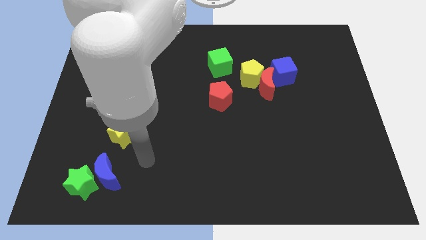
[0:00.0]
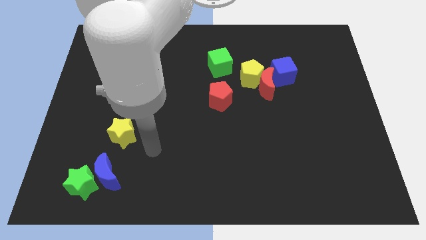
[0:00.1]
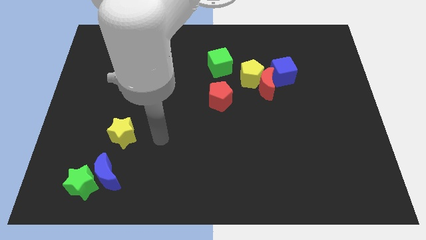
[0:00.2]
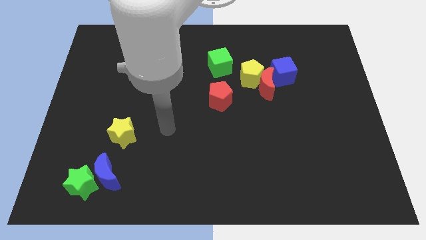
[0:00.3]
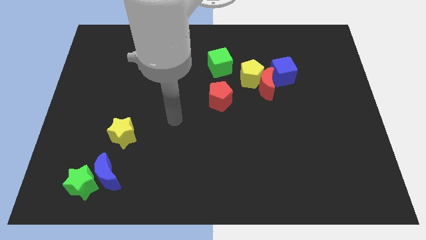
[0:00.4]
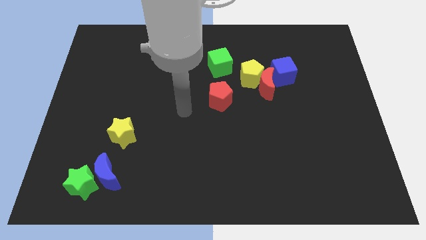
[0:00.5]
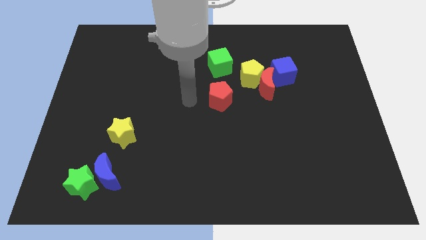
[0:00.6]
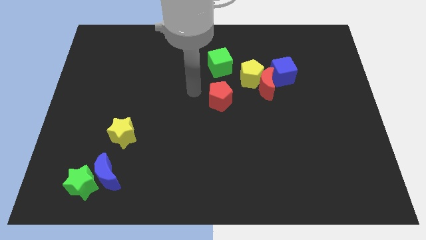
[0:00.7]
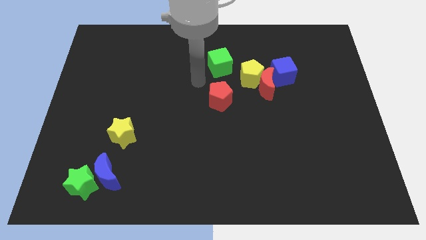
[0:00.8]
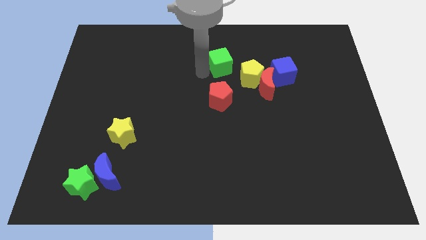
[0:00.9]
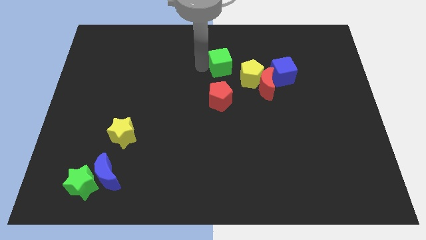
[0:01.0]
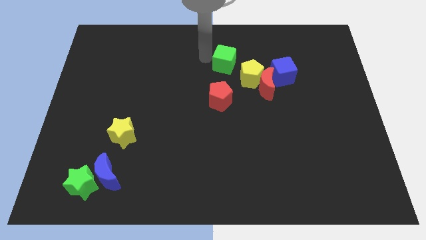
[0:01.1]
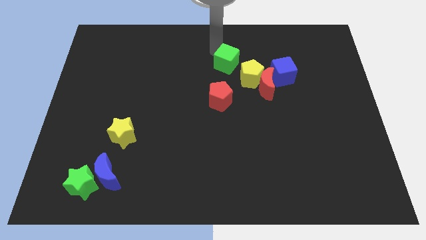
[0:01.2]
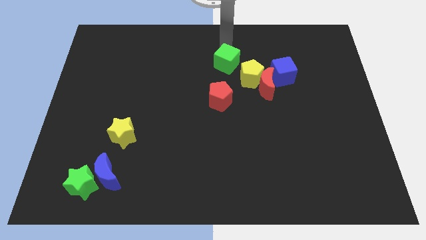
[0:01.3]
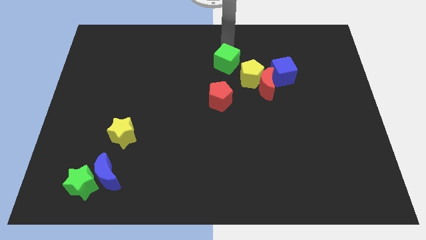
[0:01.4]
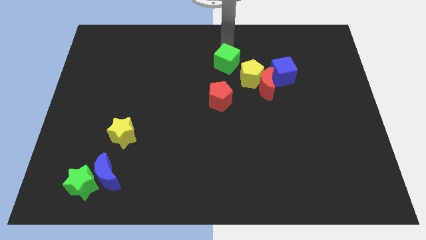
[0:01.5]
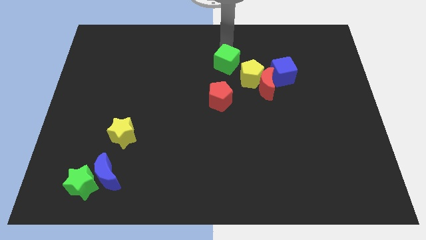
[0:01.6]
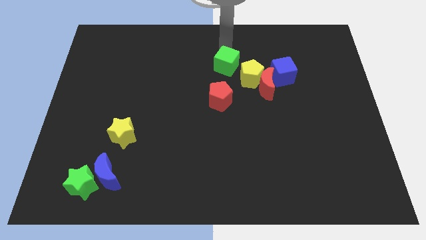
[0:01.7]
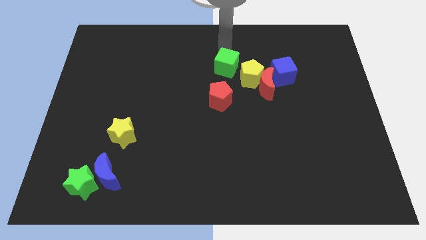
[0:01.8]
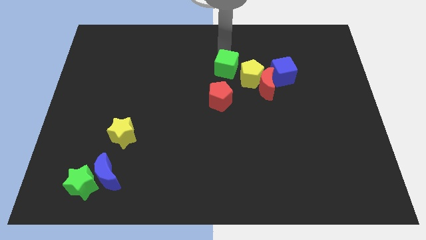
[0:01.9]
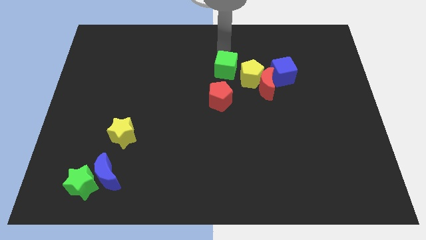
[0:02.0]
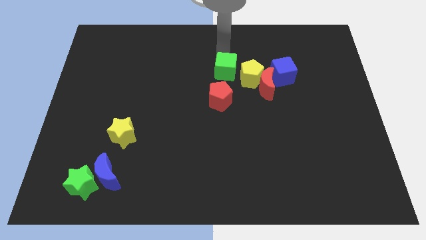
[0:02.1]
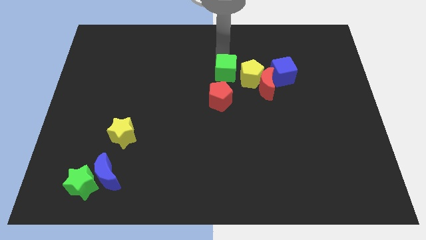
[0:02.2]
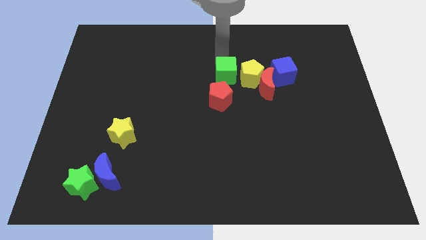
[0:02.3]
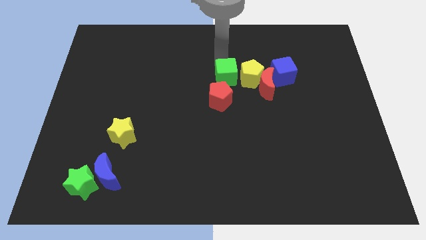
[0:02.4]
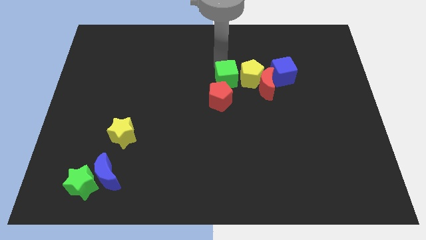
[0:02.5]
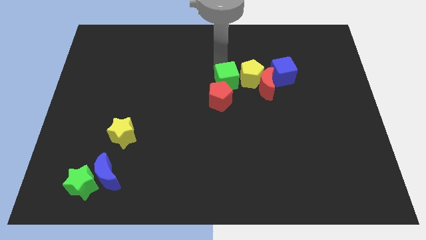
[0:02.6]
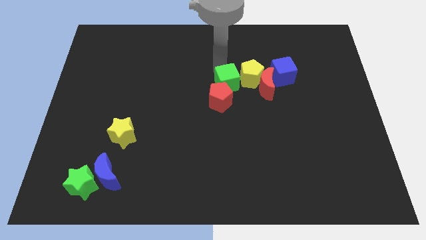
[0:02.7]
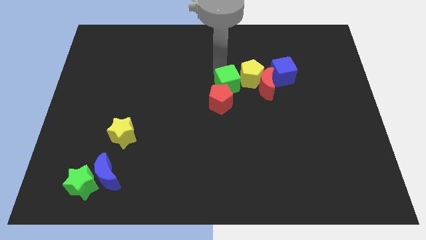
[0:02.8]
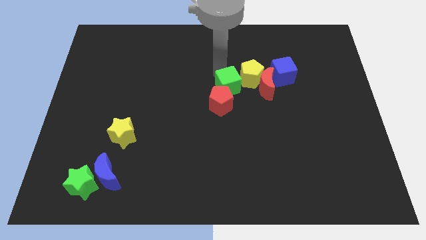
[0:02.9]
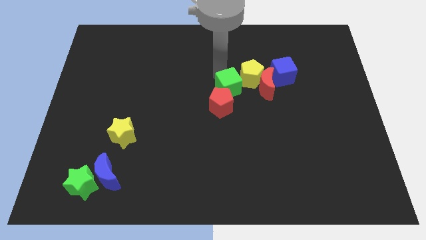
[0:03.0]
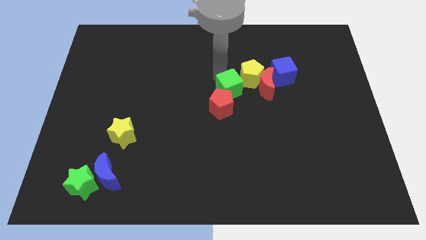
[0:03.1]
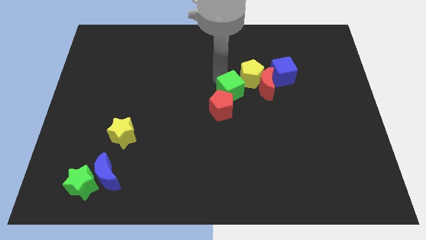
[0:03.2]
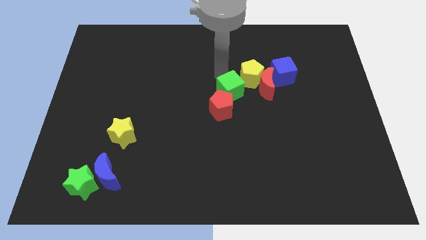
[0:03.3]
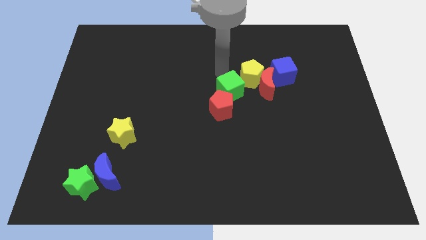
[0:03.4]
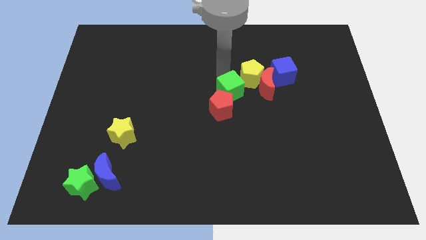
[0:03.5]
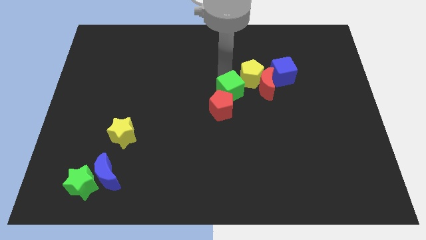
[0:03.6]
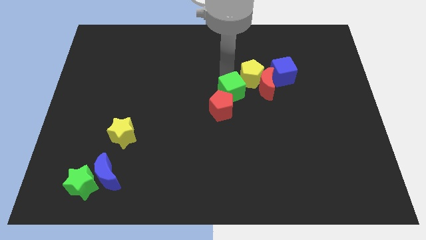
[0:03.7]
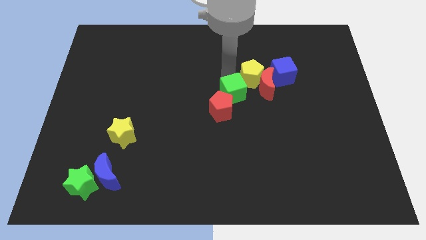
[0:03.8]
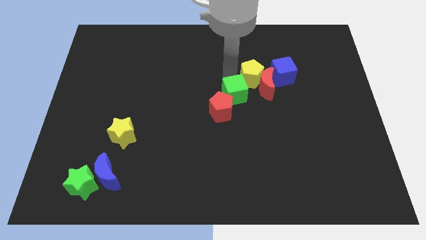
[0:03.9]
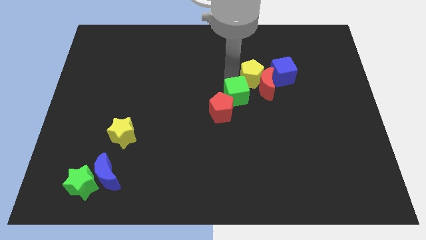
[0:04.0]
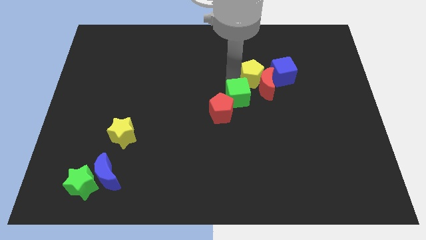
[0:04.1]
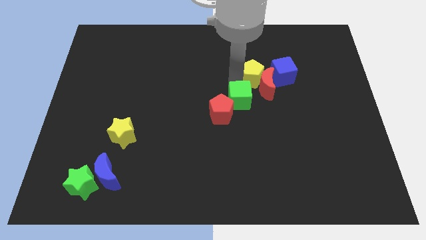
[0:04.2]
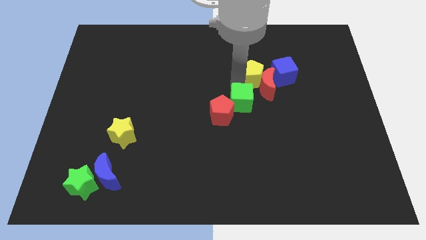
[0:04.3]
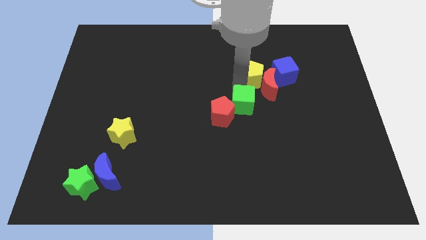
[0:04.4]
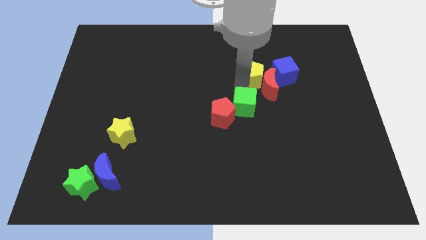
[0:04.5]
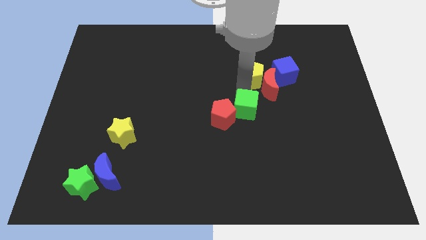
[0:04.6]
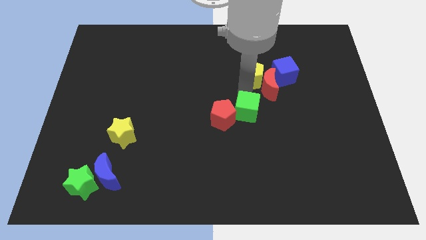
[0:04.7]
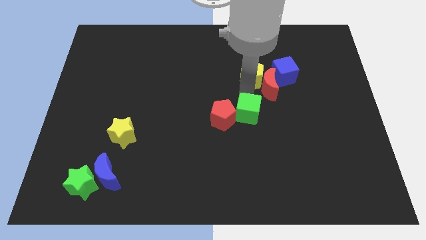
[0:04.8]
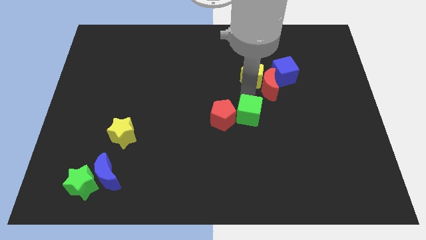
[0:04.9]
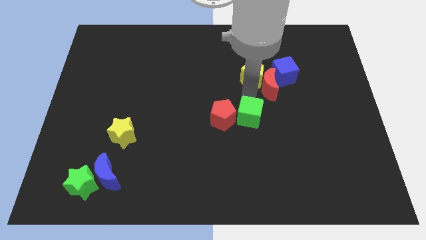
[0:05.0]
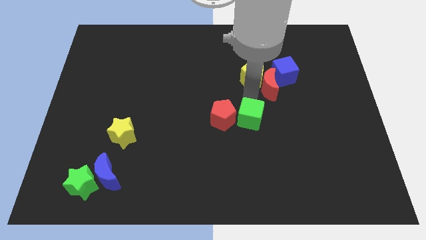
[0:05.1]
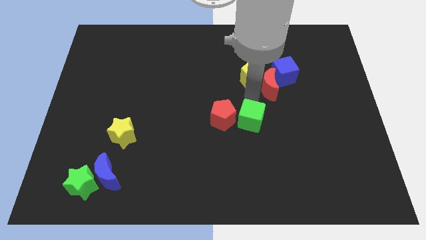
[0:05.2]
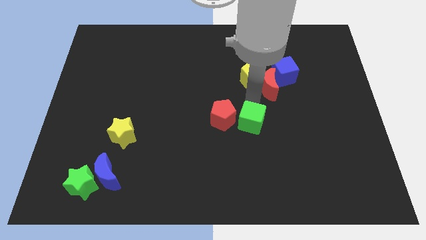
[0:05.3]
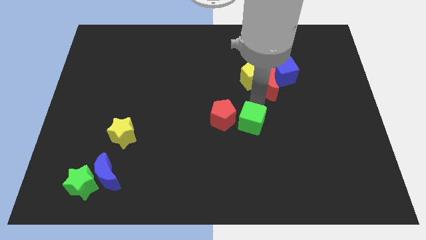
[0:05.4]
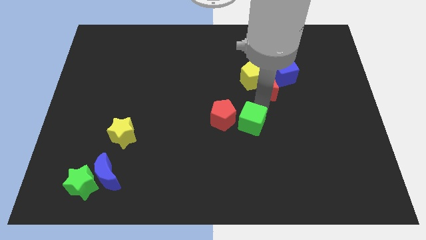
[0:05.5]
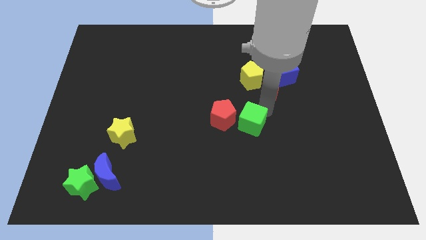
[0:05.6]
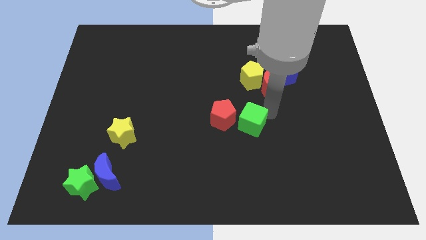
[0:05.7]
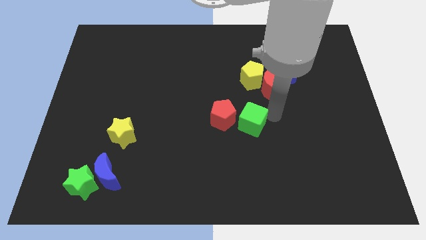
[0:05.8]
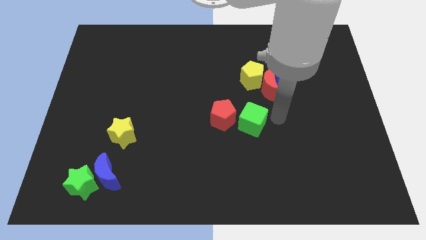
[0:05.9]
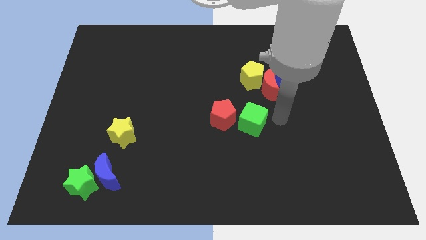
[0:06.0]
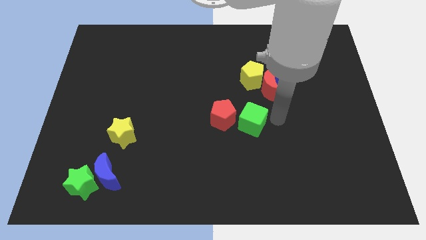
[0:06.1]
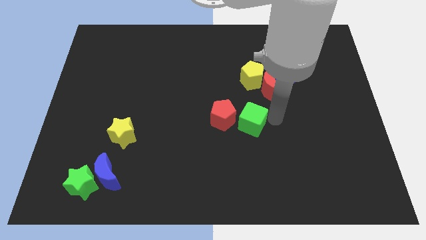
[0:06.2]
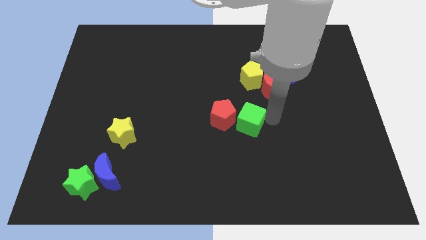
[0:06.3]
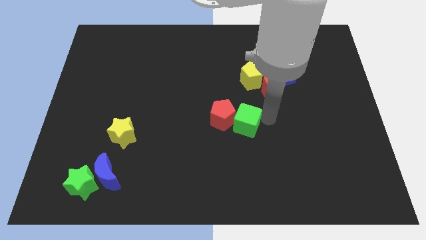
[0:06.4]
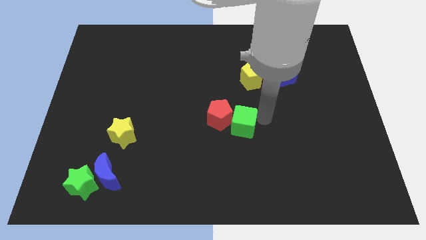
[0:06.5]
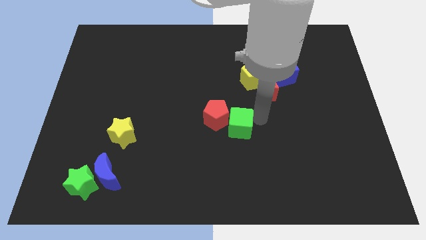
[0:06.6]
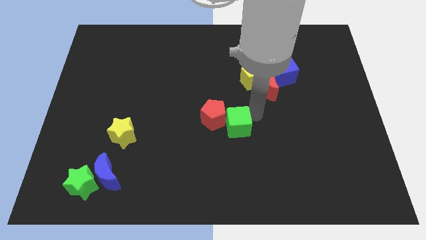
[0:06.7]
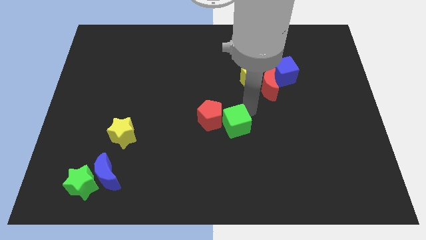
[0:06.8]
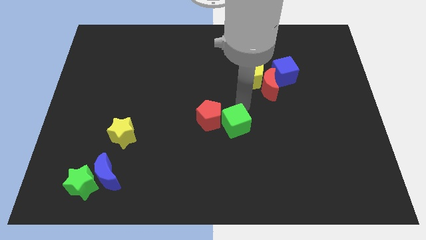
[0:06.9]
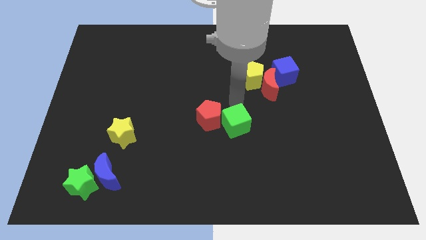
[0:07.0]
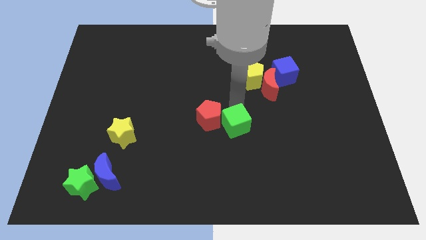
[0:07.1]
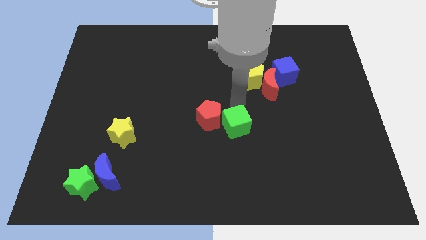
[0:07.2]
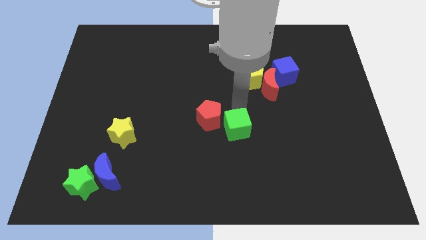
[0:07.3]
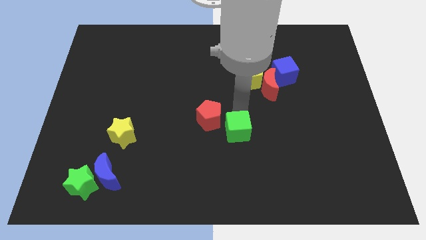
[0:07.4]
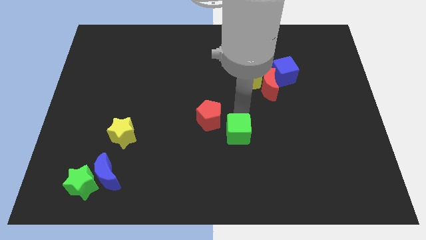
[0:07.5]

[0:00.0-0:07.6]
push the green cube downwards

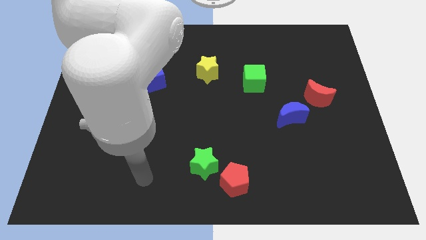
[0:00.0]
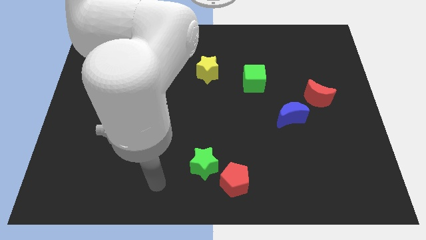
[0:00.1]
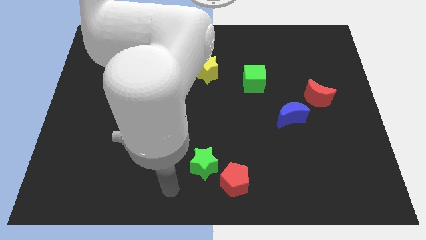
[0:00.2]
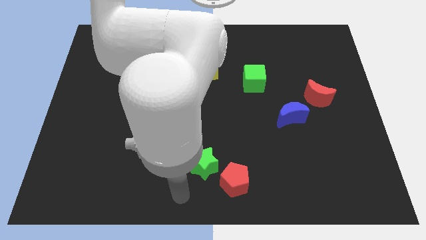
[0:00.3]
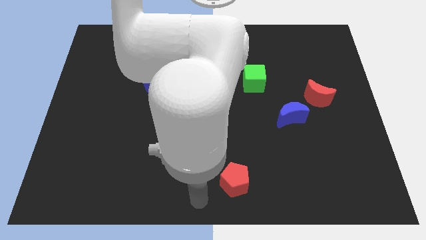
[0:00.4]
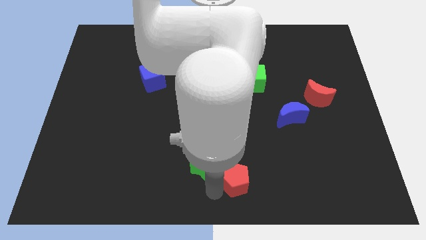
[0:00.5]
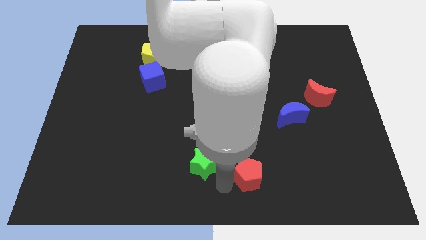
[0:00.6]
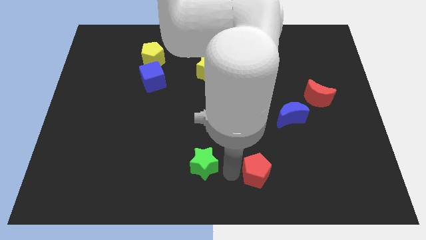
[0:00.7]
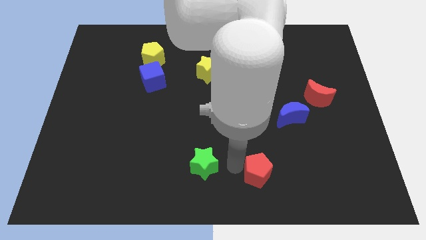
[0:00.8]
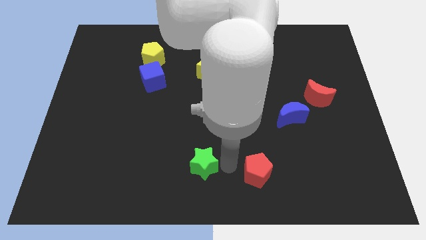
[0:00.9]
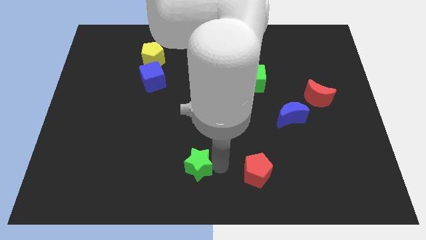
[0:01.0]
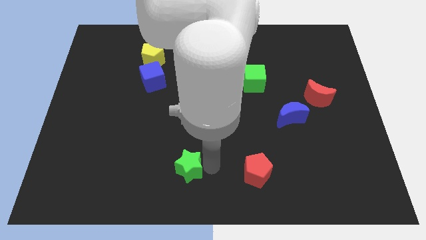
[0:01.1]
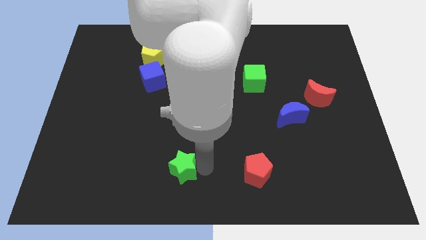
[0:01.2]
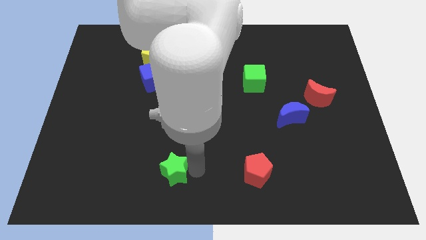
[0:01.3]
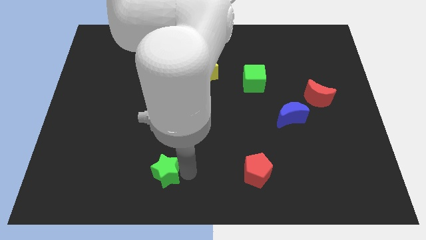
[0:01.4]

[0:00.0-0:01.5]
move the green star to the left a little bit
